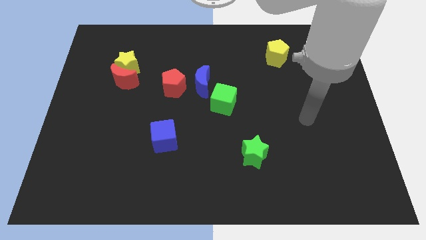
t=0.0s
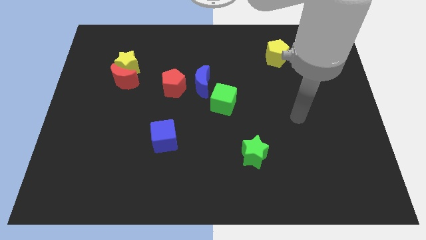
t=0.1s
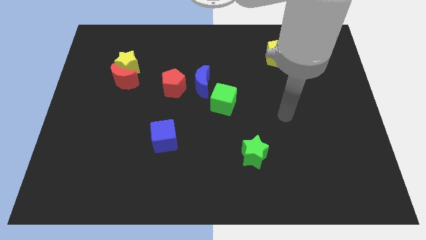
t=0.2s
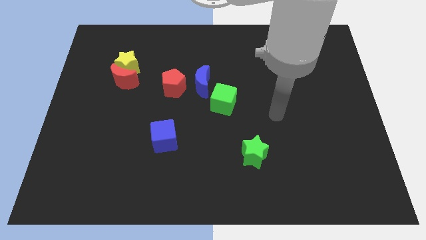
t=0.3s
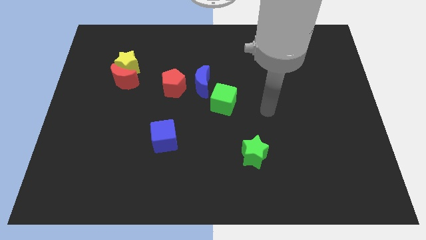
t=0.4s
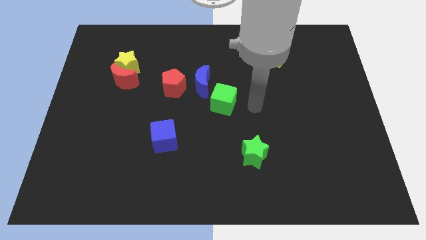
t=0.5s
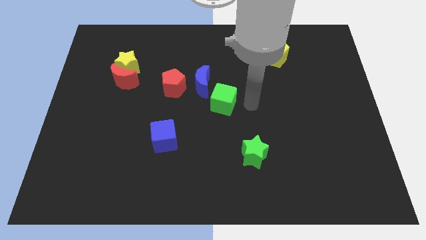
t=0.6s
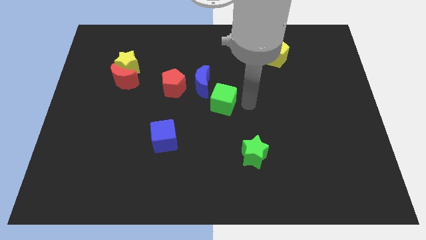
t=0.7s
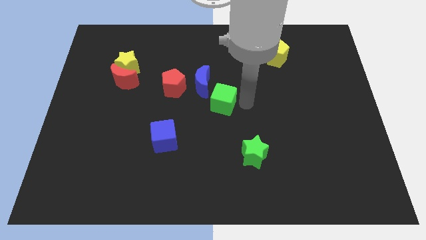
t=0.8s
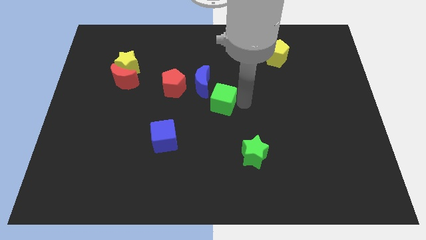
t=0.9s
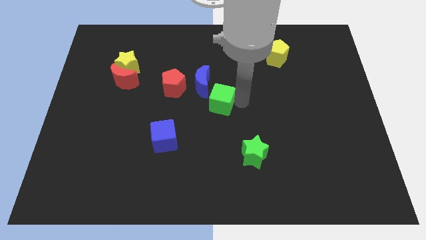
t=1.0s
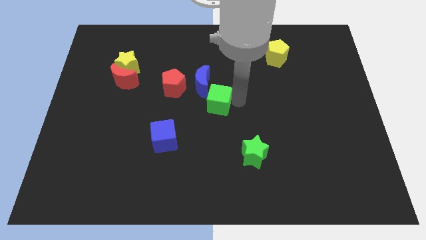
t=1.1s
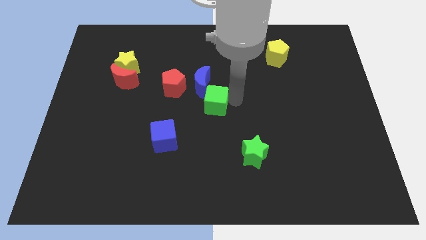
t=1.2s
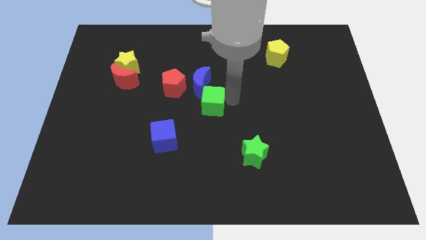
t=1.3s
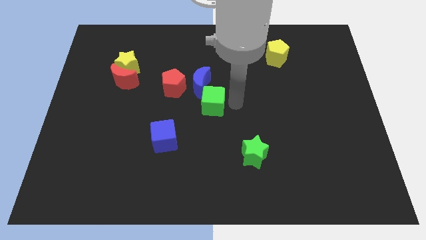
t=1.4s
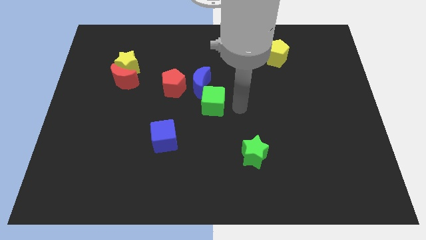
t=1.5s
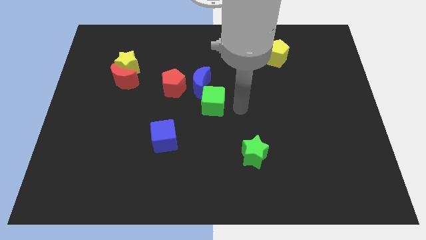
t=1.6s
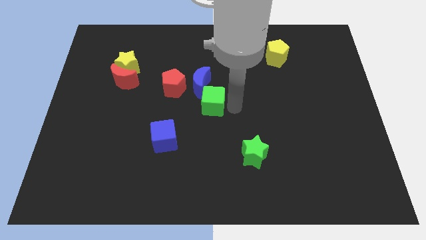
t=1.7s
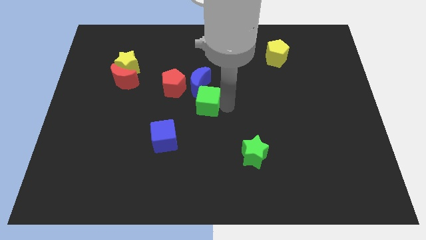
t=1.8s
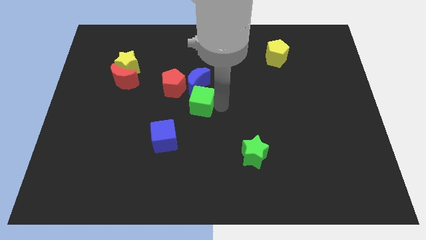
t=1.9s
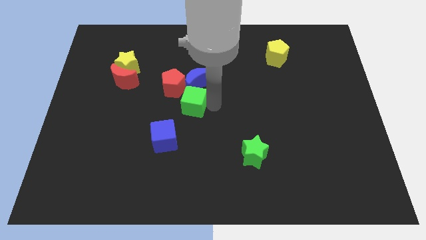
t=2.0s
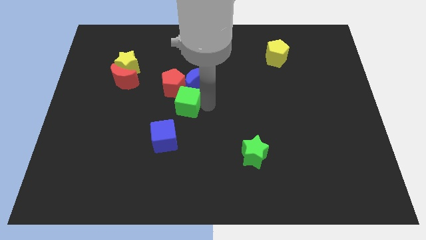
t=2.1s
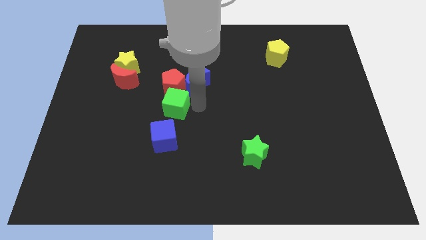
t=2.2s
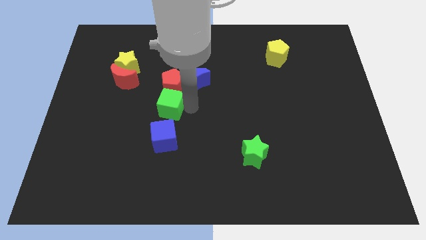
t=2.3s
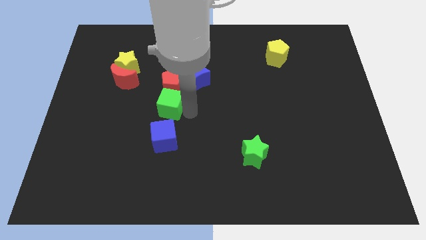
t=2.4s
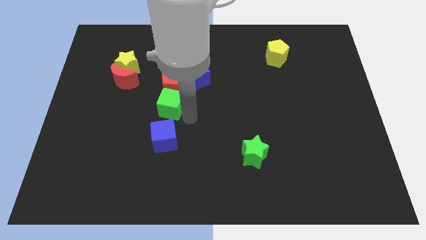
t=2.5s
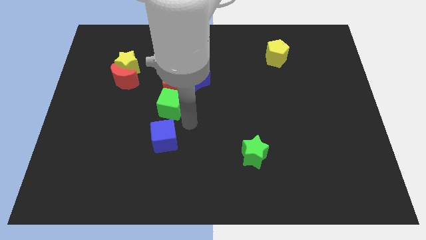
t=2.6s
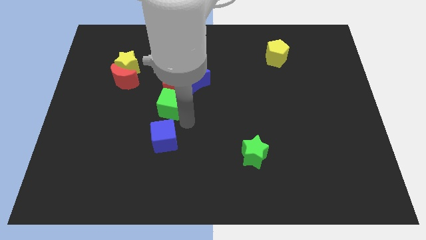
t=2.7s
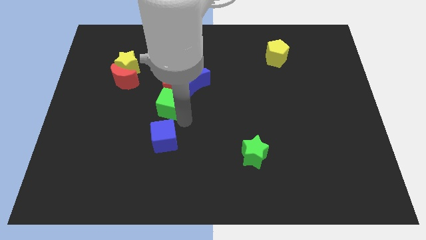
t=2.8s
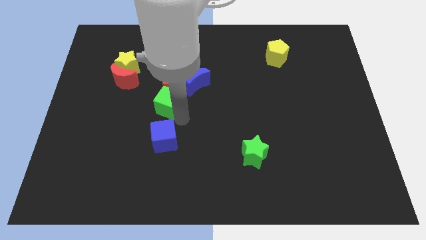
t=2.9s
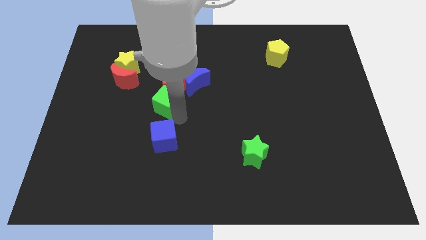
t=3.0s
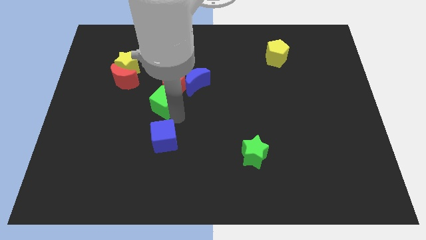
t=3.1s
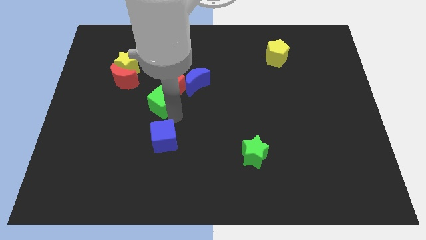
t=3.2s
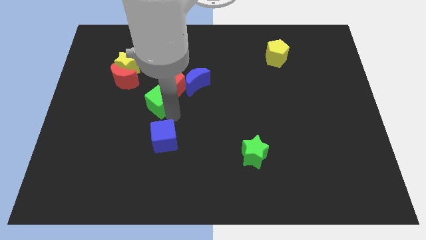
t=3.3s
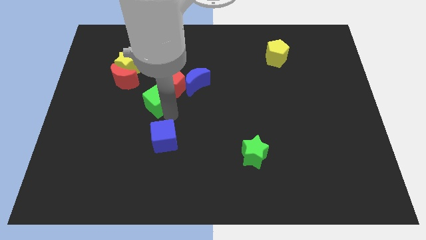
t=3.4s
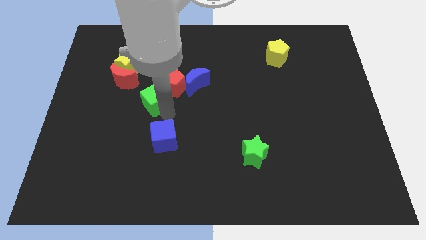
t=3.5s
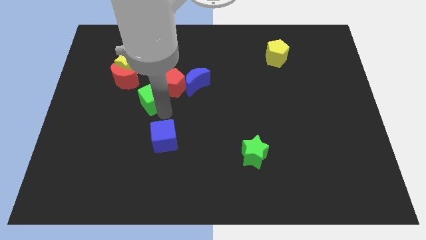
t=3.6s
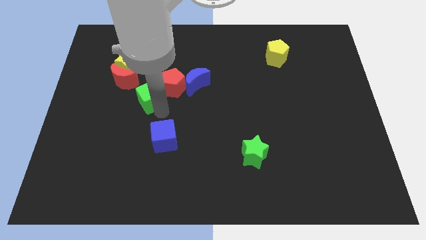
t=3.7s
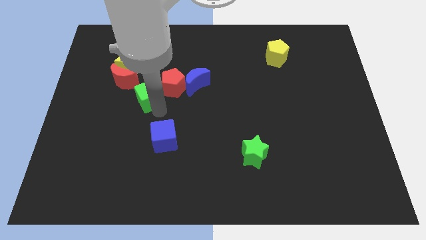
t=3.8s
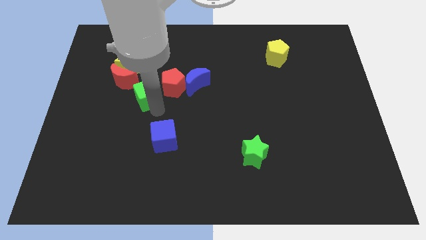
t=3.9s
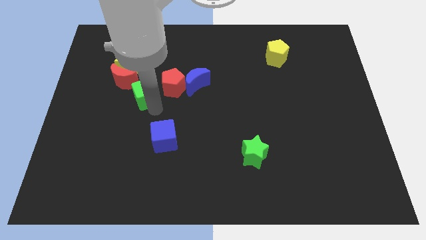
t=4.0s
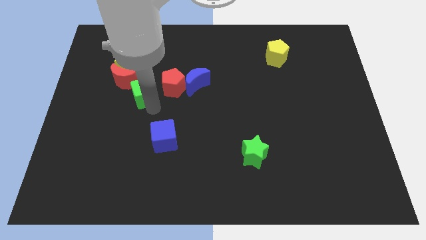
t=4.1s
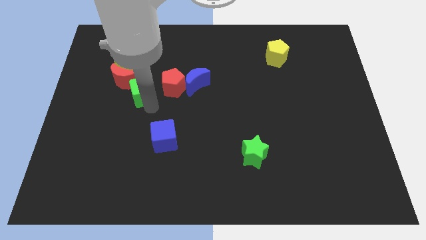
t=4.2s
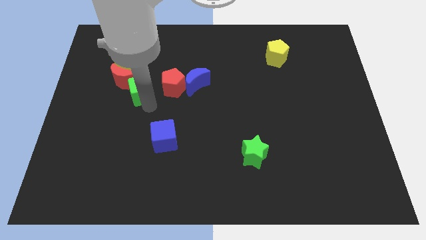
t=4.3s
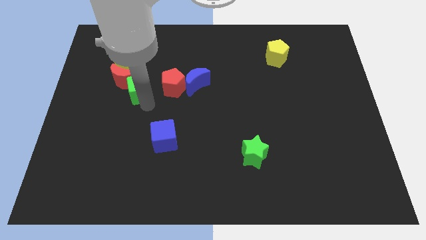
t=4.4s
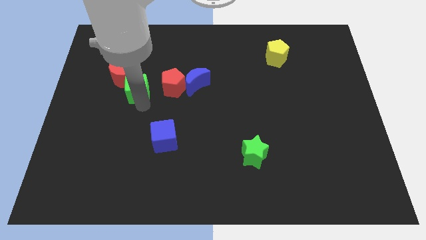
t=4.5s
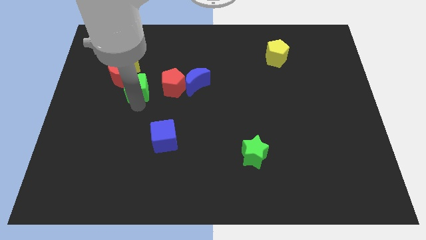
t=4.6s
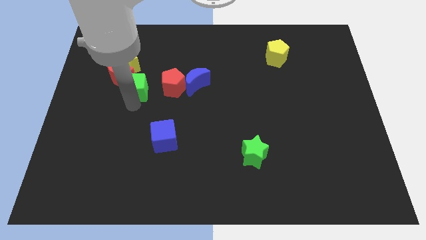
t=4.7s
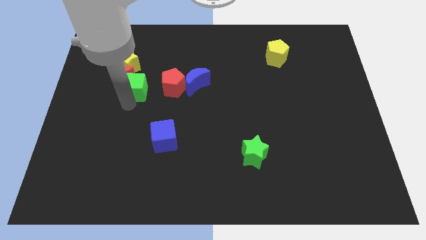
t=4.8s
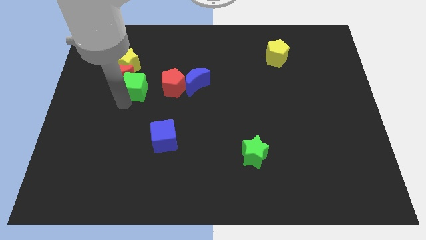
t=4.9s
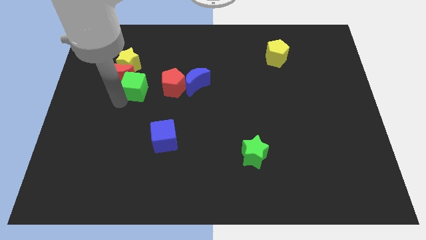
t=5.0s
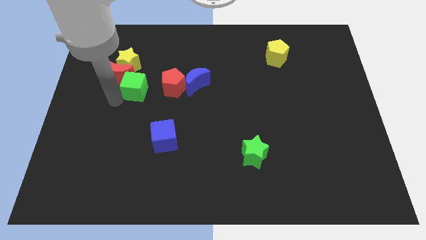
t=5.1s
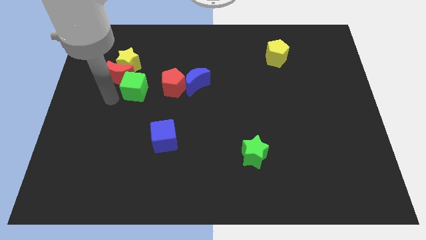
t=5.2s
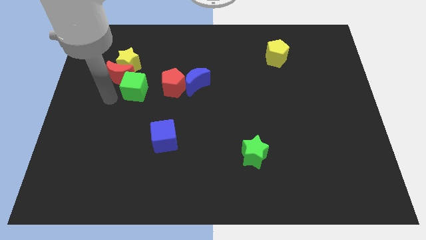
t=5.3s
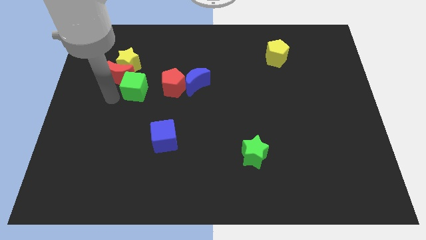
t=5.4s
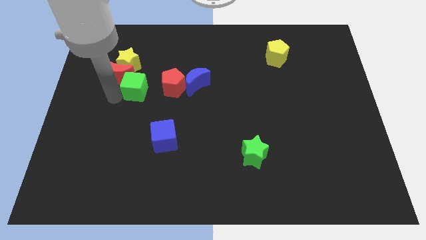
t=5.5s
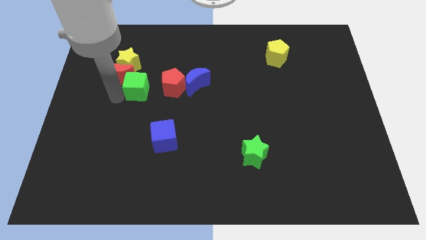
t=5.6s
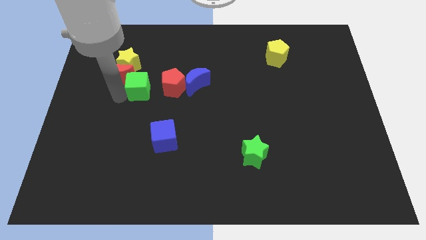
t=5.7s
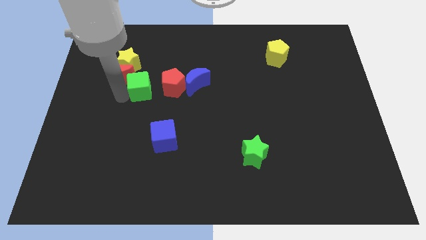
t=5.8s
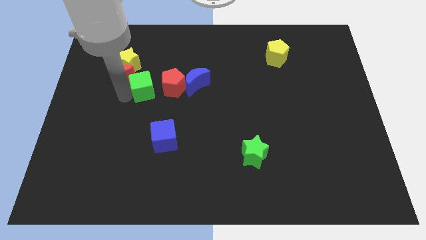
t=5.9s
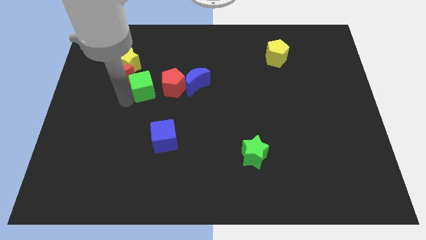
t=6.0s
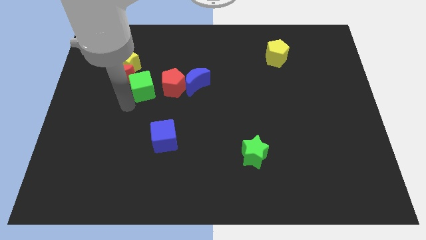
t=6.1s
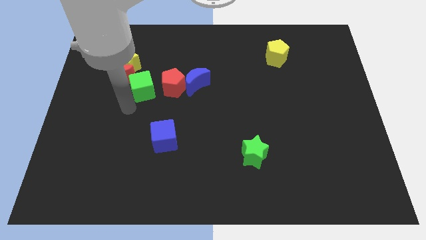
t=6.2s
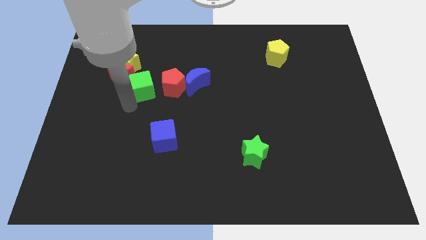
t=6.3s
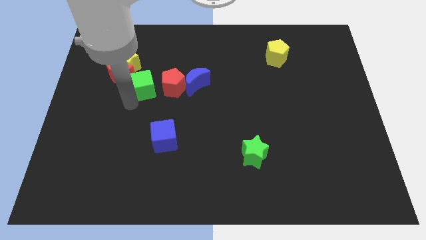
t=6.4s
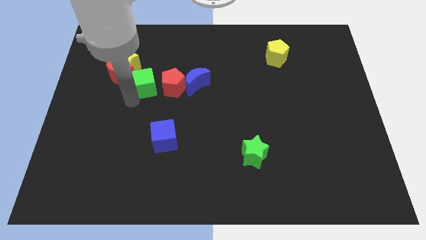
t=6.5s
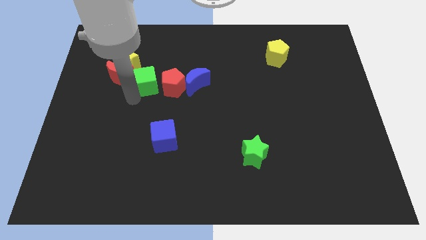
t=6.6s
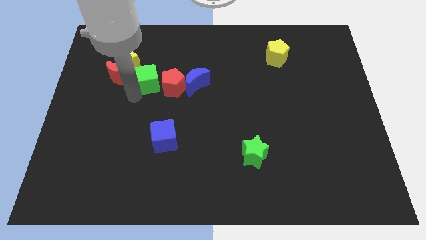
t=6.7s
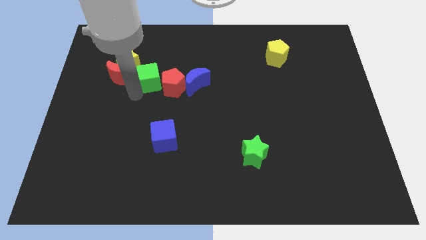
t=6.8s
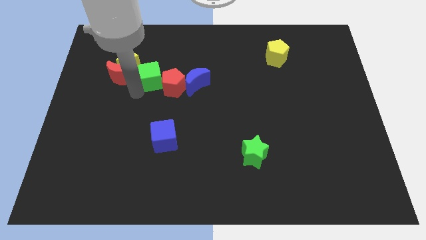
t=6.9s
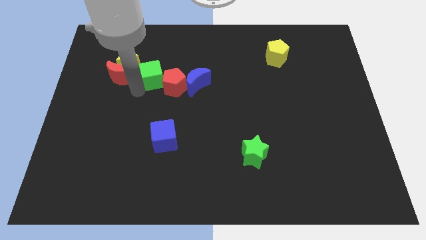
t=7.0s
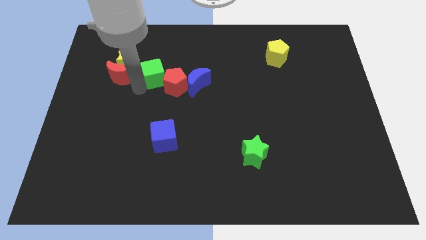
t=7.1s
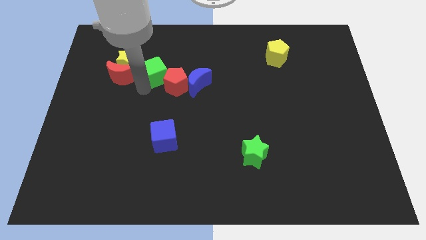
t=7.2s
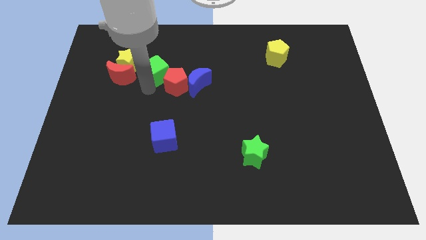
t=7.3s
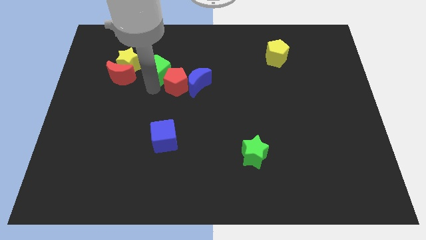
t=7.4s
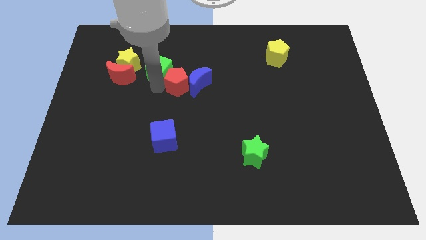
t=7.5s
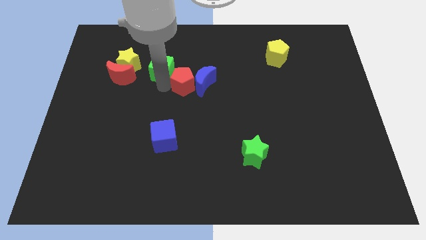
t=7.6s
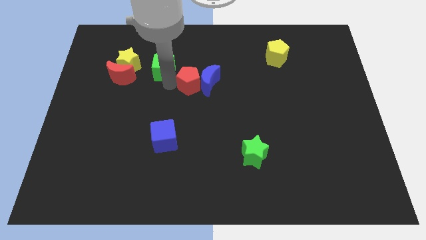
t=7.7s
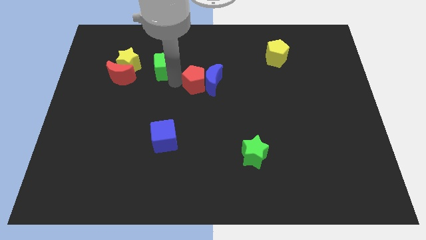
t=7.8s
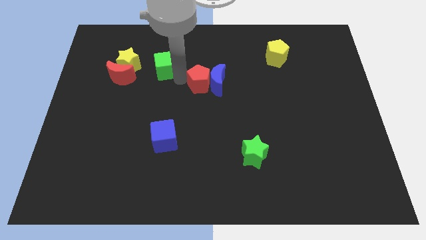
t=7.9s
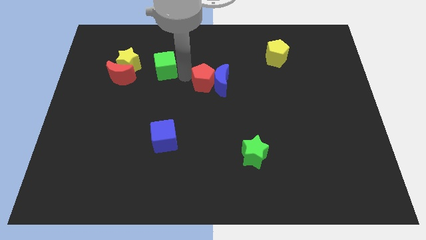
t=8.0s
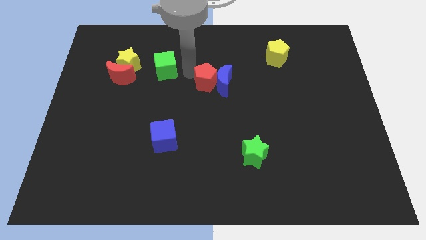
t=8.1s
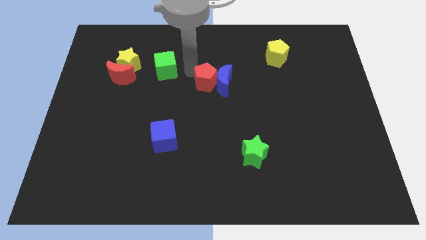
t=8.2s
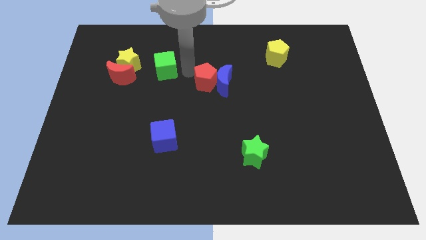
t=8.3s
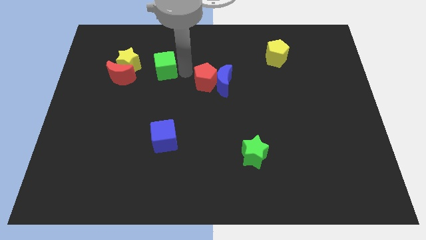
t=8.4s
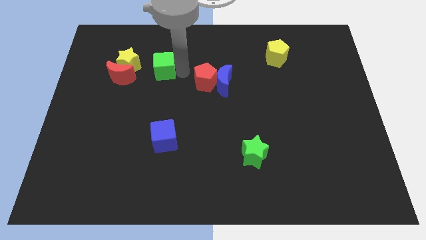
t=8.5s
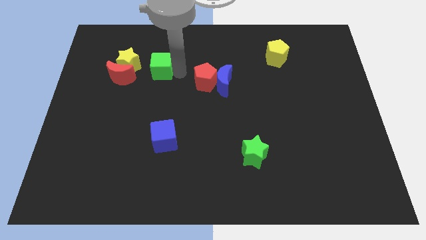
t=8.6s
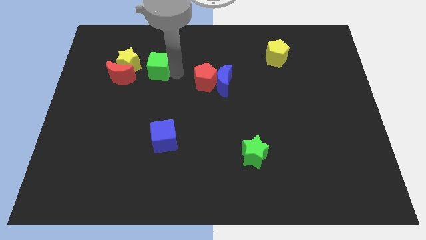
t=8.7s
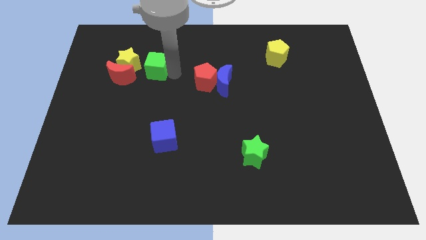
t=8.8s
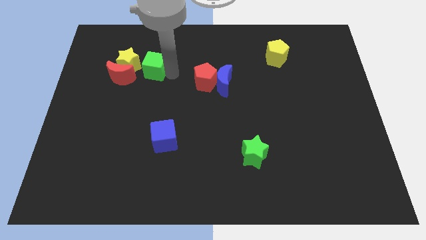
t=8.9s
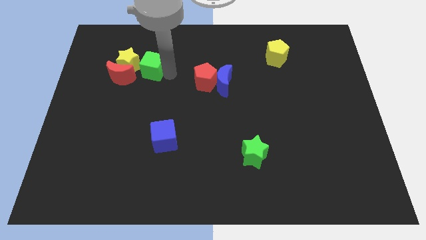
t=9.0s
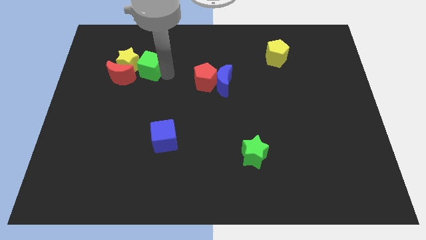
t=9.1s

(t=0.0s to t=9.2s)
slide the green cube towards the yellow star
